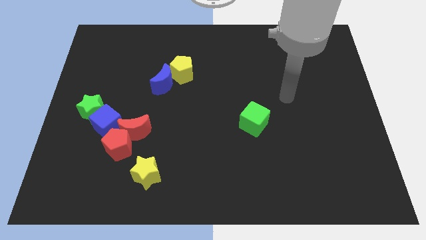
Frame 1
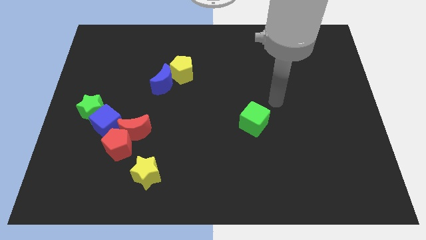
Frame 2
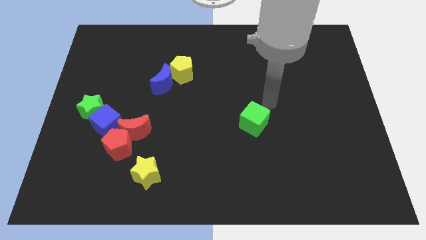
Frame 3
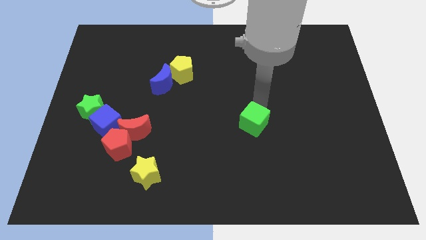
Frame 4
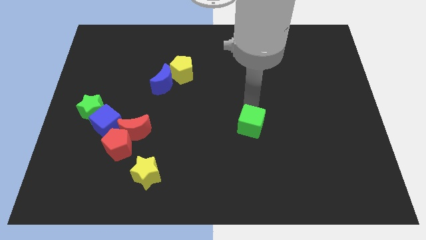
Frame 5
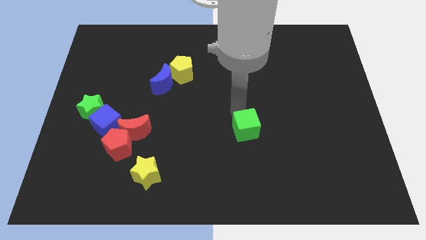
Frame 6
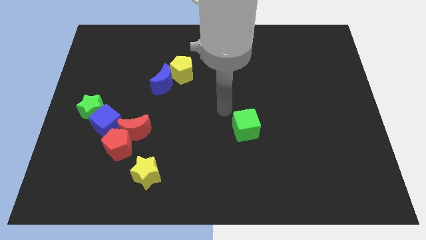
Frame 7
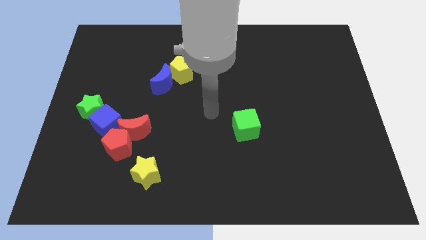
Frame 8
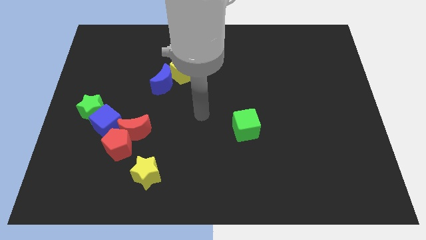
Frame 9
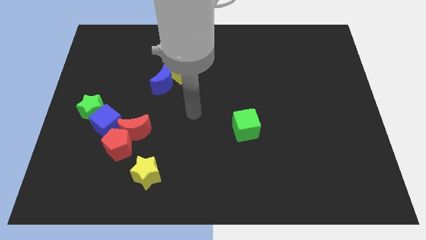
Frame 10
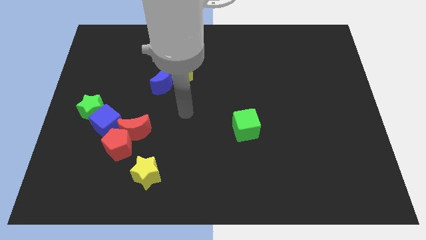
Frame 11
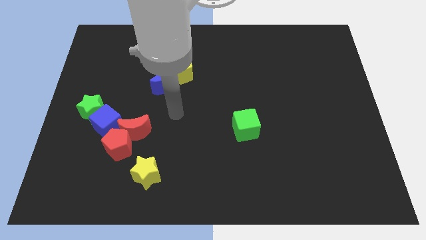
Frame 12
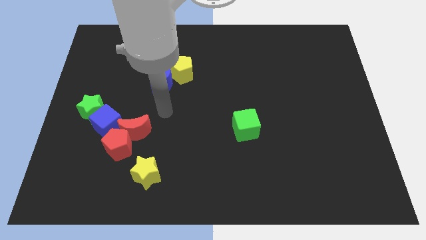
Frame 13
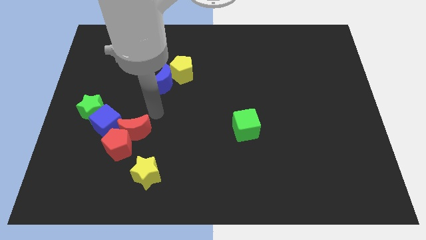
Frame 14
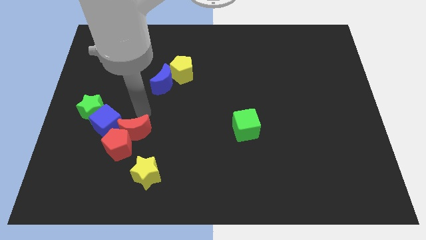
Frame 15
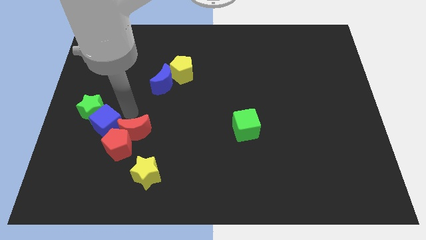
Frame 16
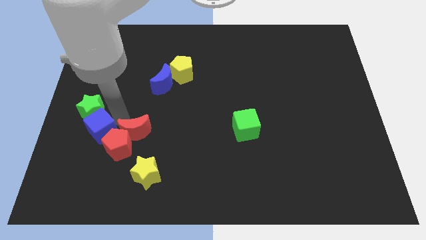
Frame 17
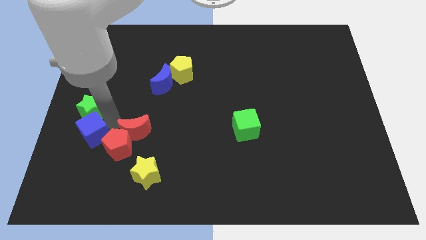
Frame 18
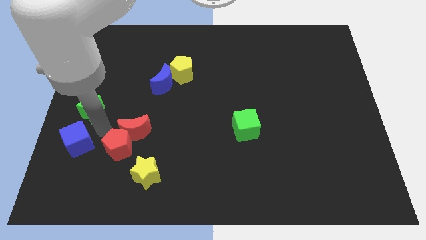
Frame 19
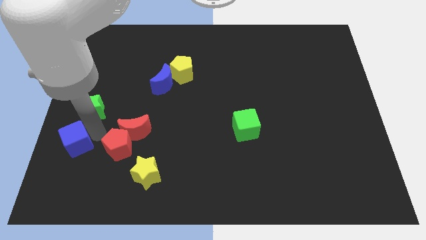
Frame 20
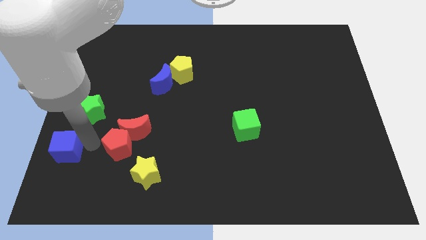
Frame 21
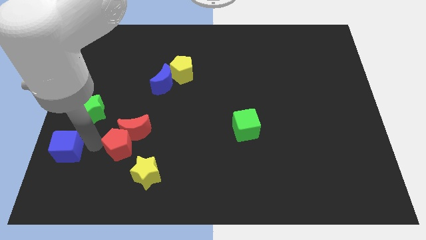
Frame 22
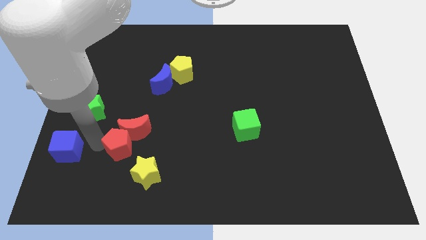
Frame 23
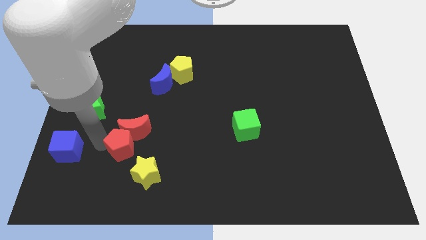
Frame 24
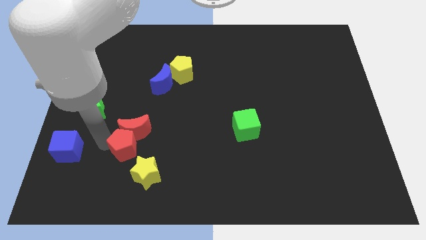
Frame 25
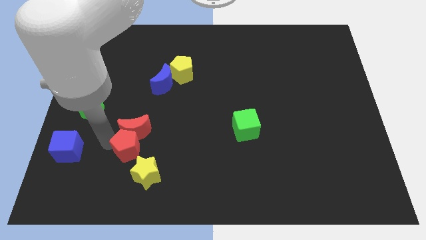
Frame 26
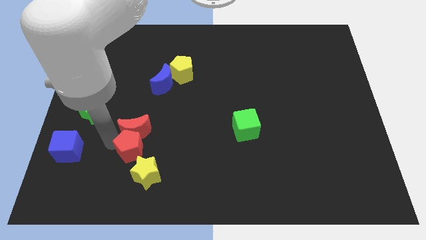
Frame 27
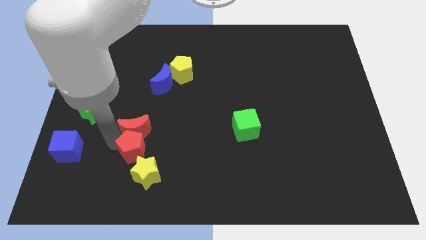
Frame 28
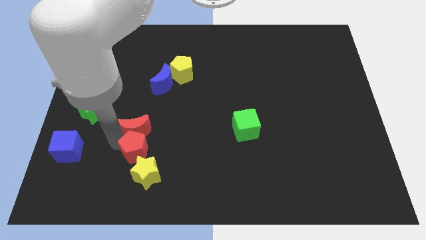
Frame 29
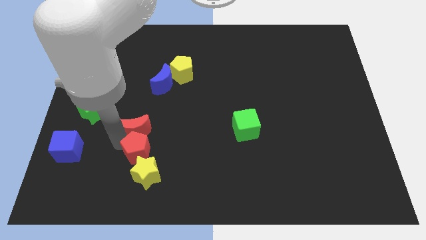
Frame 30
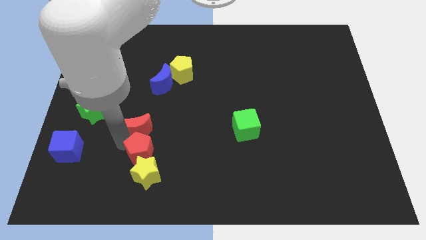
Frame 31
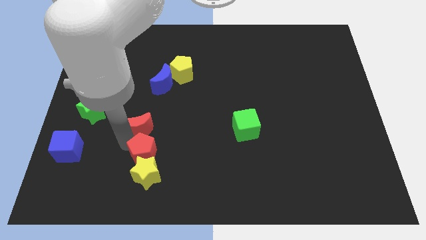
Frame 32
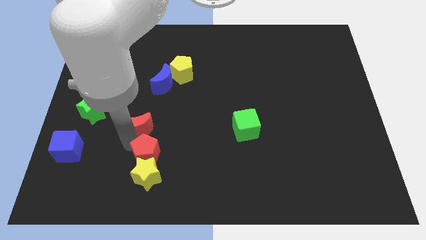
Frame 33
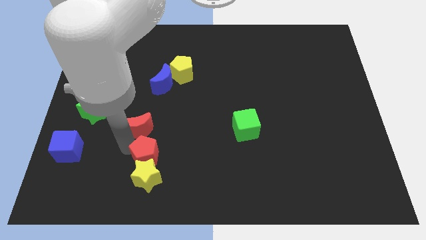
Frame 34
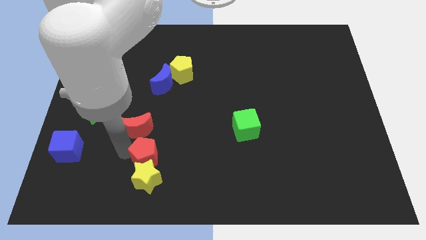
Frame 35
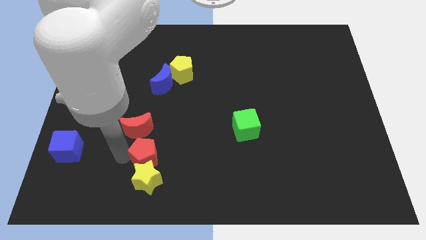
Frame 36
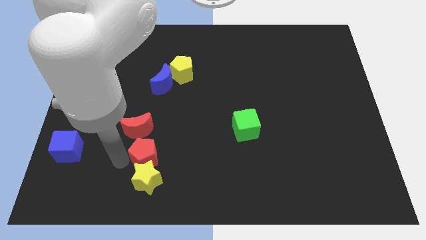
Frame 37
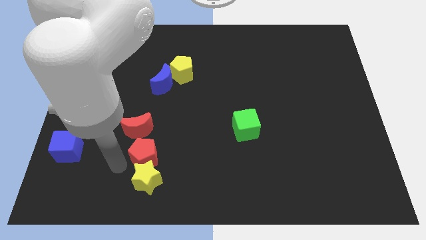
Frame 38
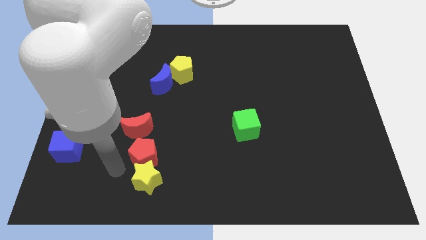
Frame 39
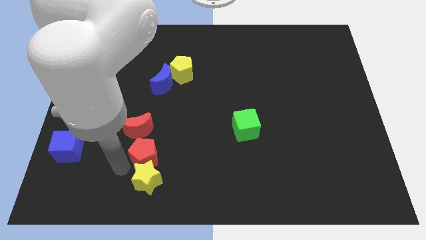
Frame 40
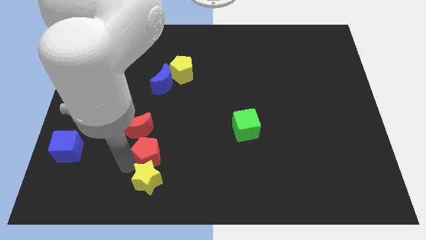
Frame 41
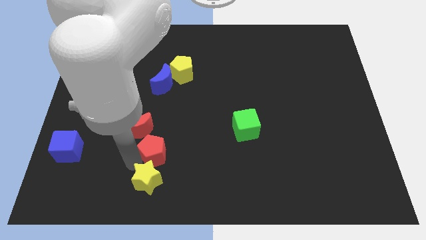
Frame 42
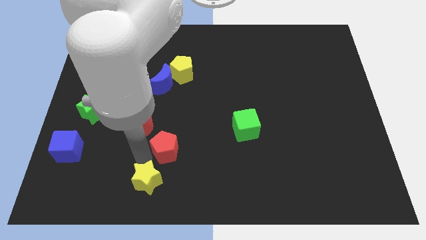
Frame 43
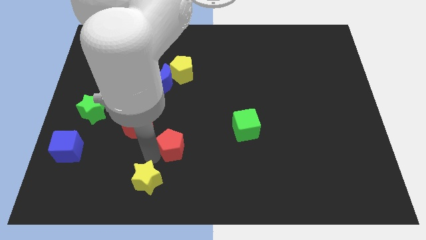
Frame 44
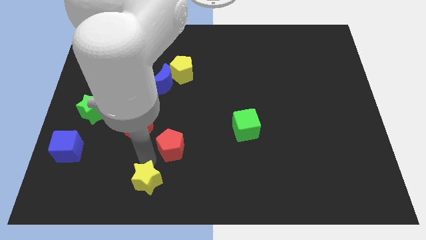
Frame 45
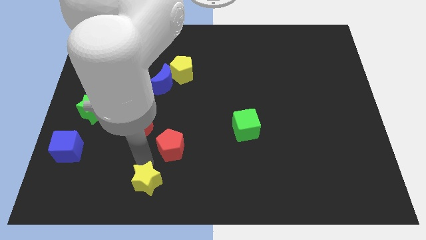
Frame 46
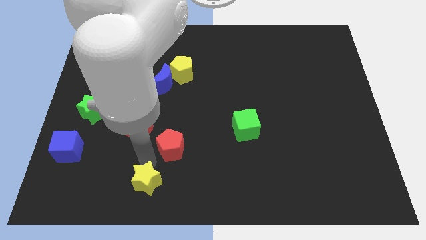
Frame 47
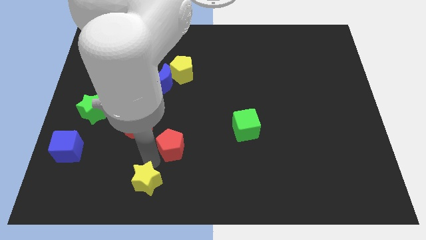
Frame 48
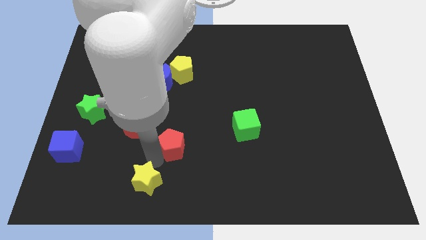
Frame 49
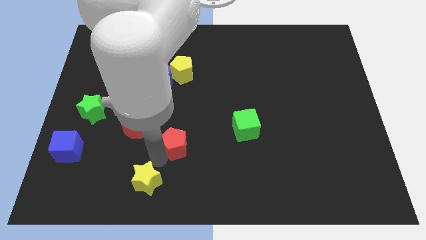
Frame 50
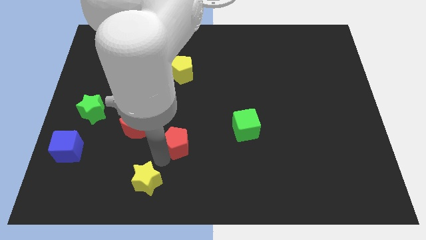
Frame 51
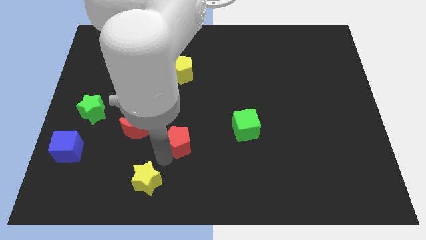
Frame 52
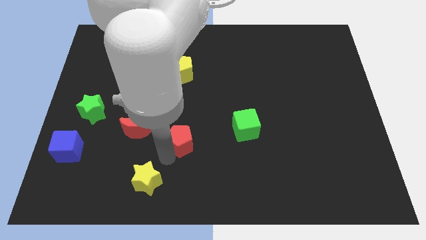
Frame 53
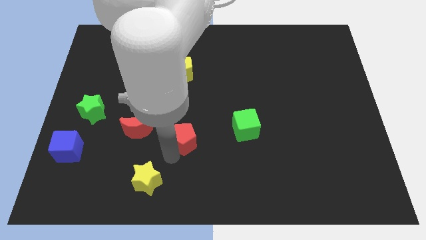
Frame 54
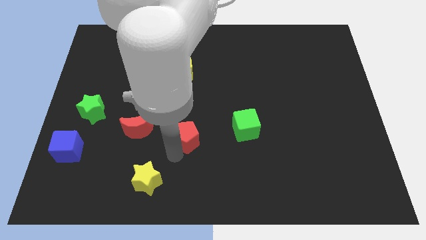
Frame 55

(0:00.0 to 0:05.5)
move the red pentagon to the center
